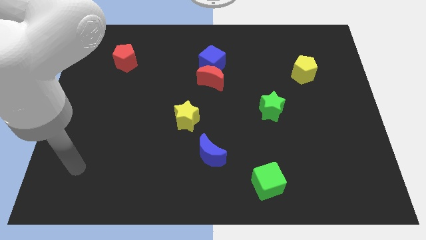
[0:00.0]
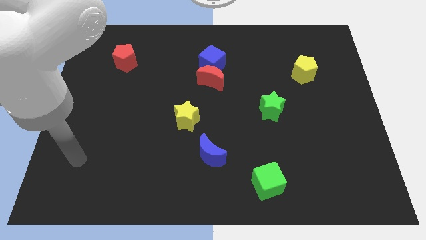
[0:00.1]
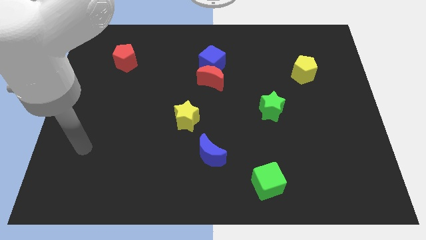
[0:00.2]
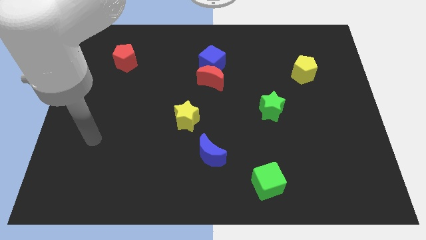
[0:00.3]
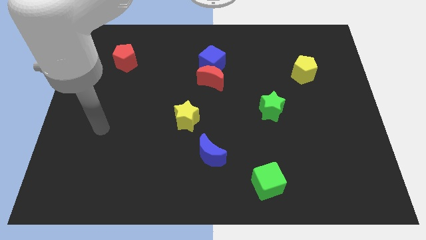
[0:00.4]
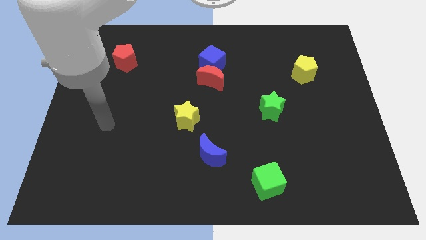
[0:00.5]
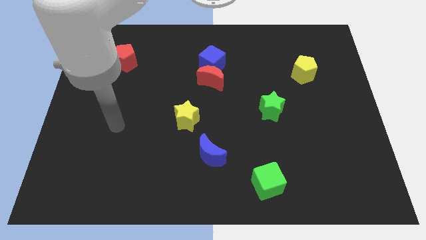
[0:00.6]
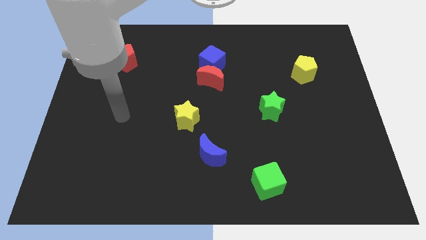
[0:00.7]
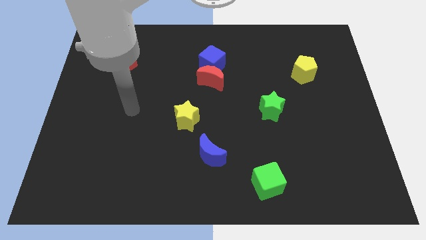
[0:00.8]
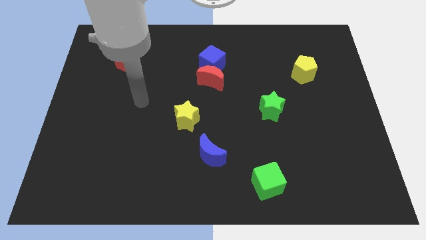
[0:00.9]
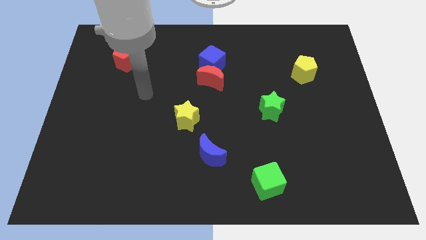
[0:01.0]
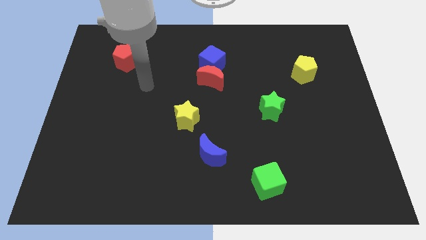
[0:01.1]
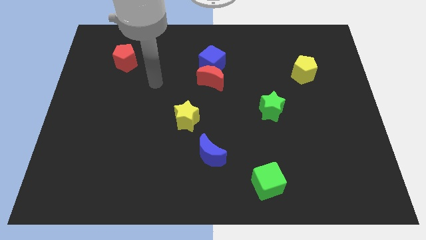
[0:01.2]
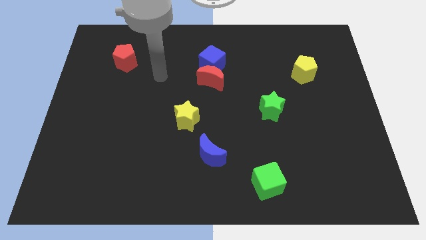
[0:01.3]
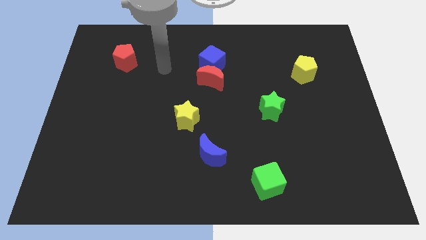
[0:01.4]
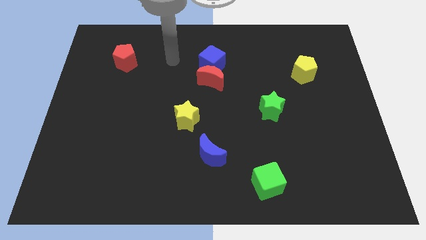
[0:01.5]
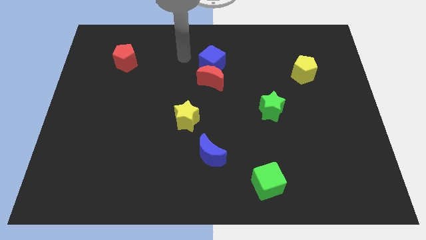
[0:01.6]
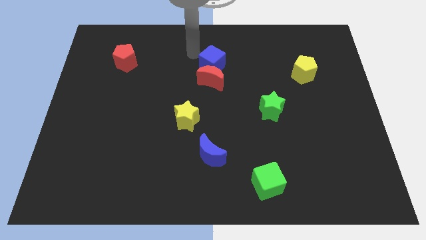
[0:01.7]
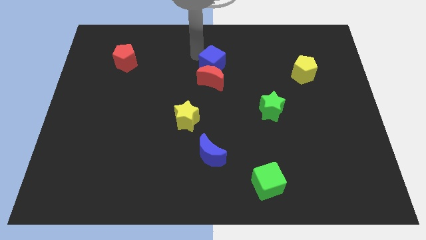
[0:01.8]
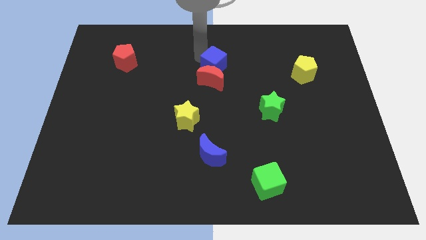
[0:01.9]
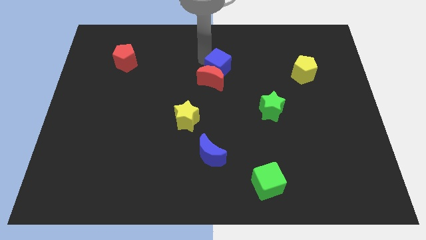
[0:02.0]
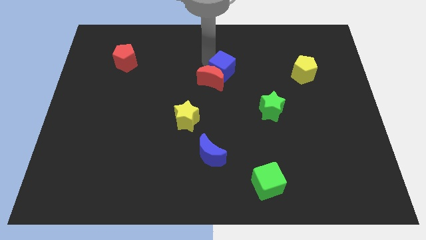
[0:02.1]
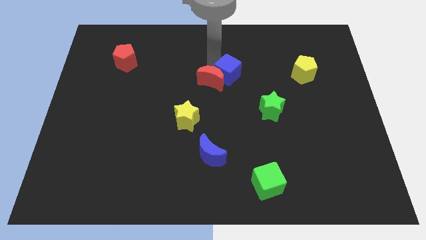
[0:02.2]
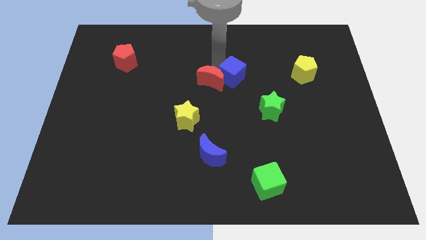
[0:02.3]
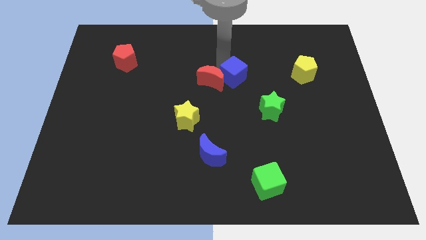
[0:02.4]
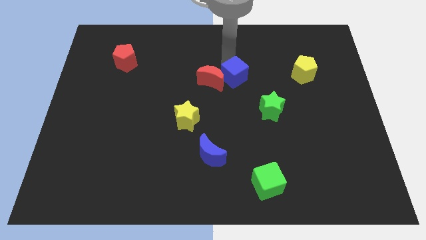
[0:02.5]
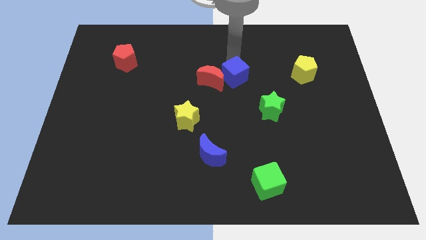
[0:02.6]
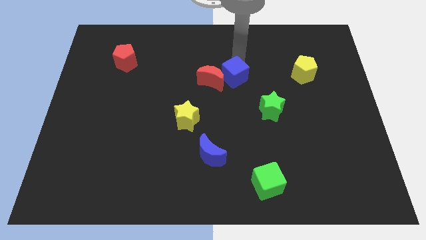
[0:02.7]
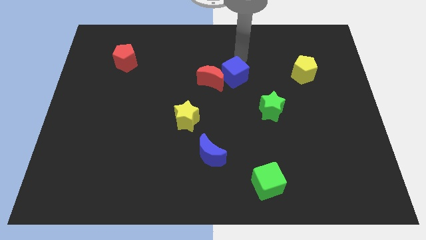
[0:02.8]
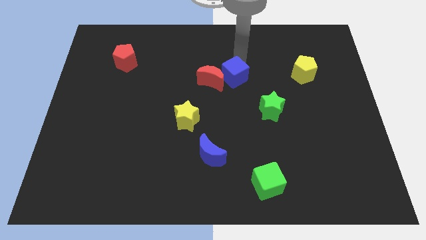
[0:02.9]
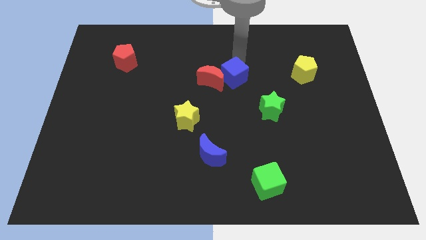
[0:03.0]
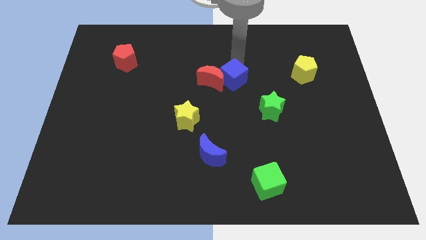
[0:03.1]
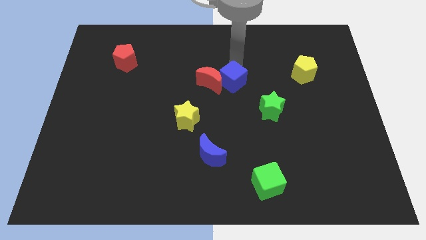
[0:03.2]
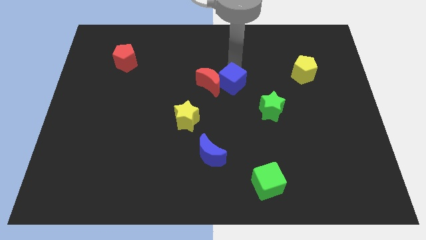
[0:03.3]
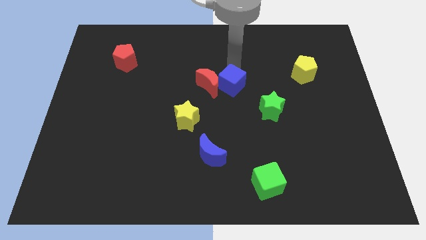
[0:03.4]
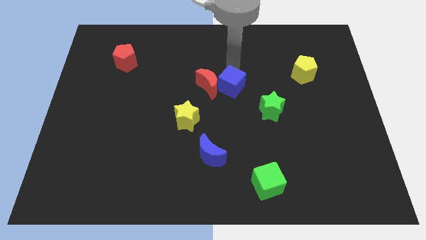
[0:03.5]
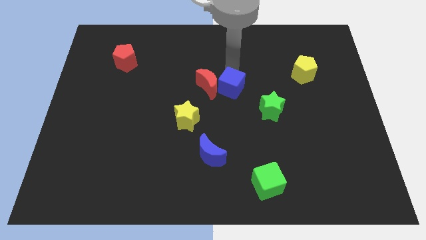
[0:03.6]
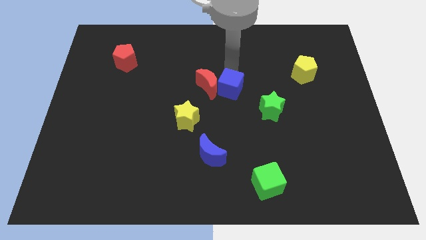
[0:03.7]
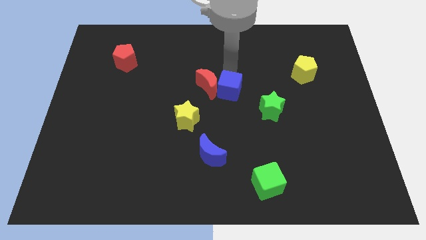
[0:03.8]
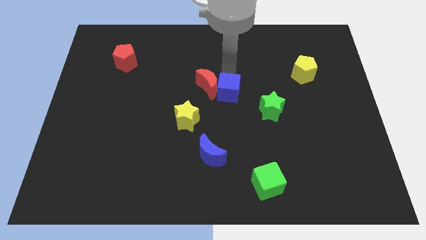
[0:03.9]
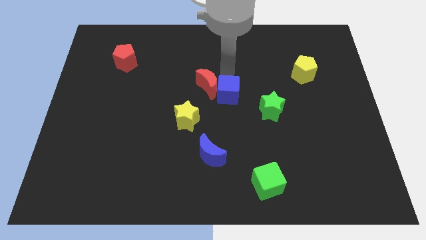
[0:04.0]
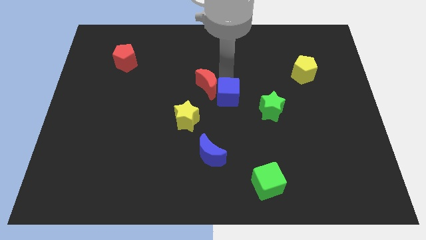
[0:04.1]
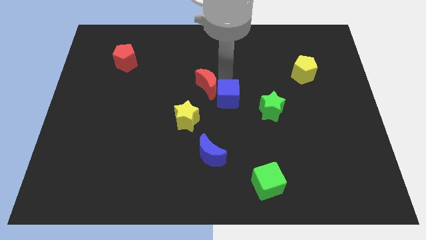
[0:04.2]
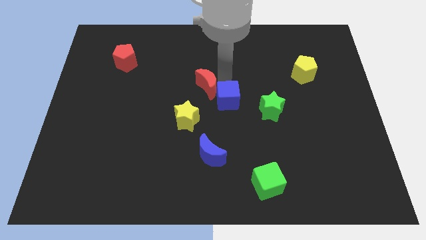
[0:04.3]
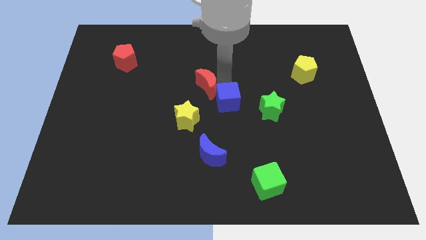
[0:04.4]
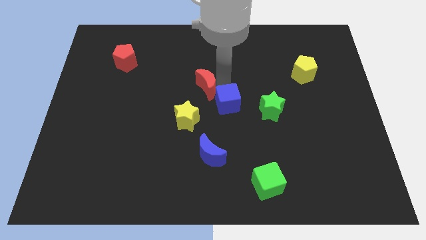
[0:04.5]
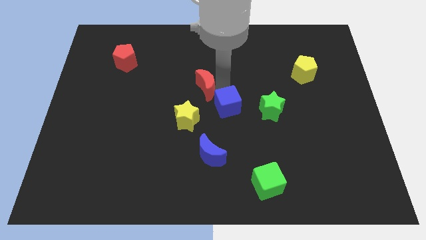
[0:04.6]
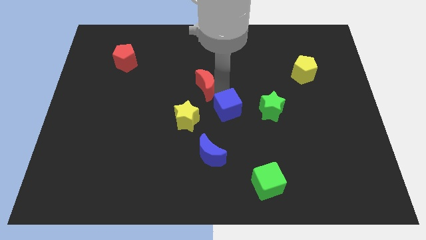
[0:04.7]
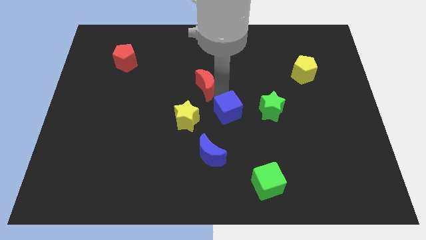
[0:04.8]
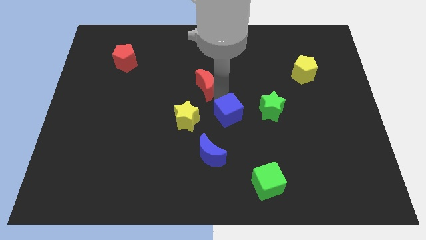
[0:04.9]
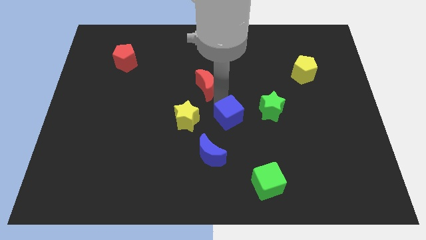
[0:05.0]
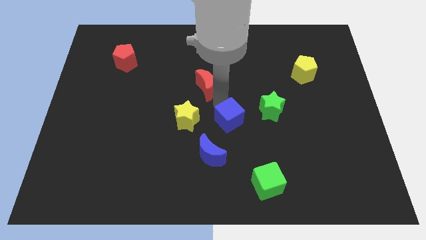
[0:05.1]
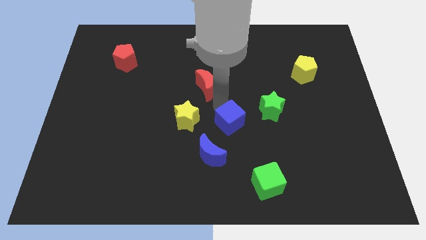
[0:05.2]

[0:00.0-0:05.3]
put the blue cube diagonally down and to the left of the green star

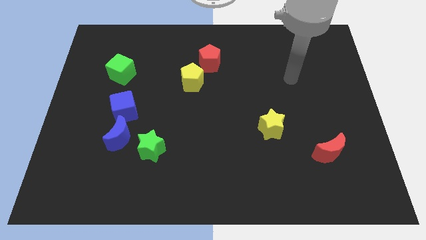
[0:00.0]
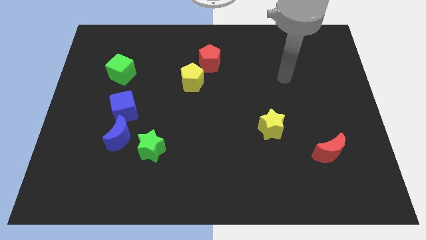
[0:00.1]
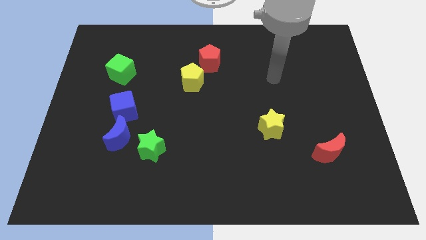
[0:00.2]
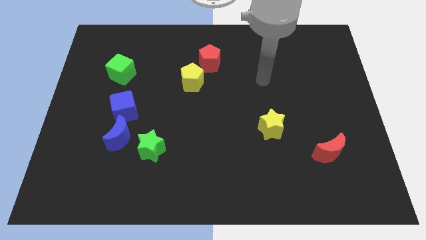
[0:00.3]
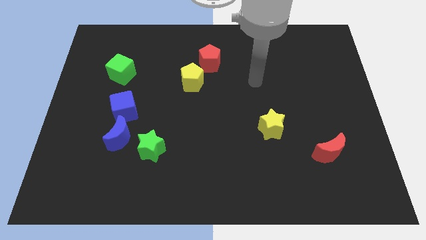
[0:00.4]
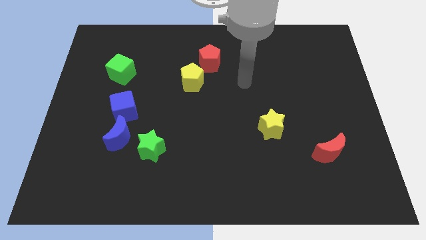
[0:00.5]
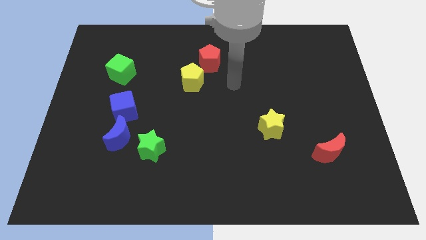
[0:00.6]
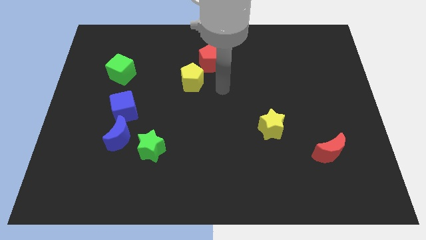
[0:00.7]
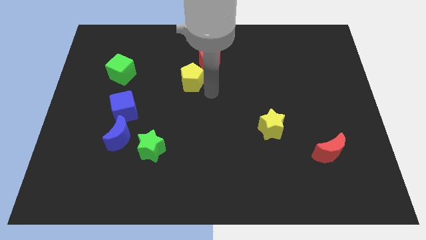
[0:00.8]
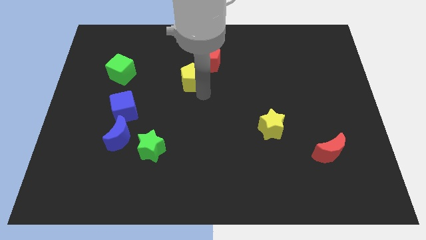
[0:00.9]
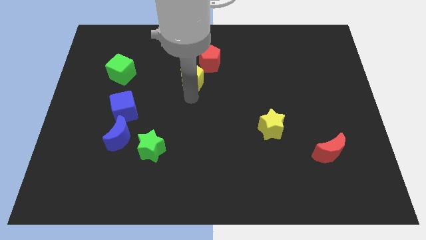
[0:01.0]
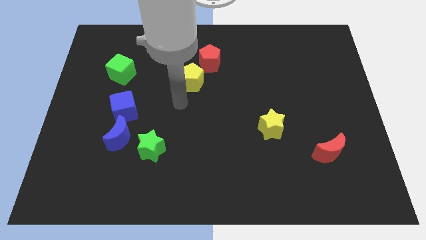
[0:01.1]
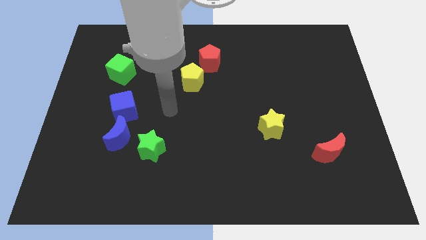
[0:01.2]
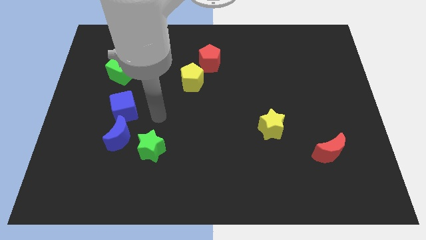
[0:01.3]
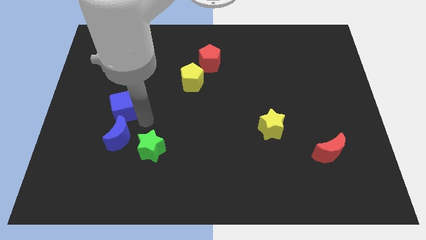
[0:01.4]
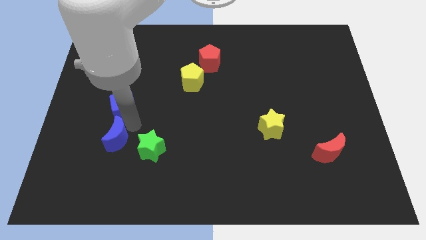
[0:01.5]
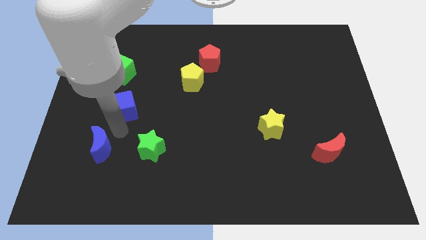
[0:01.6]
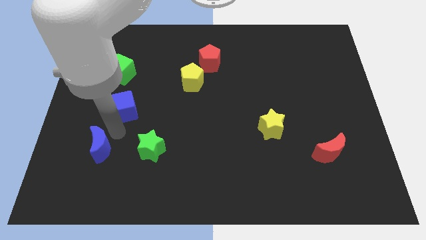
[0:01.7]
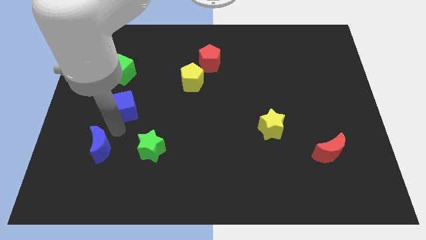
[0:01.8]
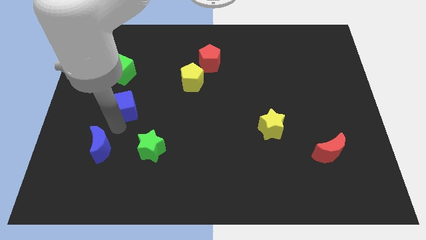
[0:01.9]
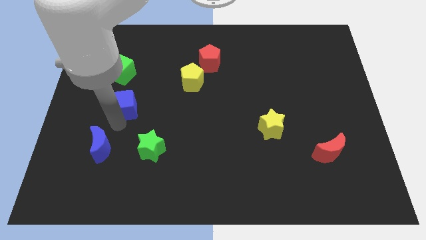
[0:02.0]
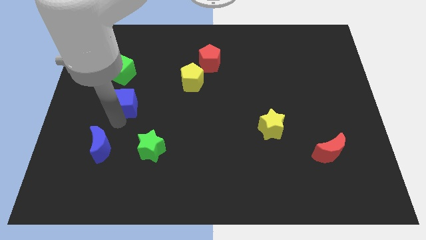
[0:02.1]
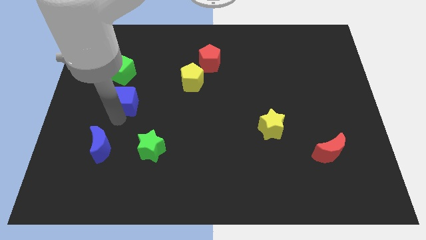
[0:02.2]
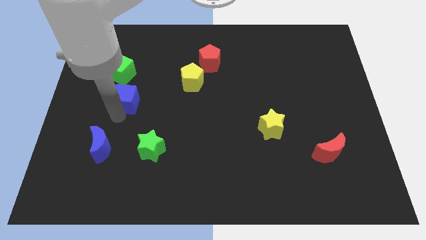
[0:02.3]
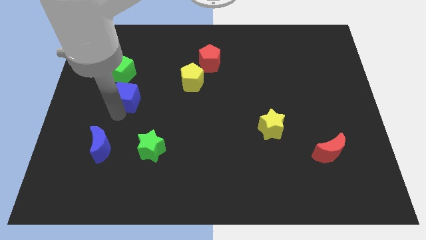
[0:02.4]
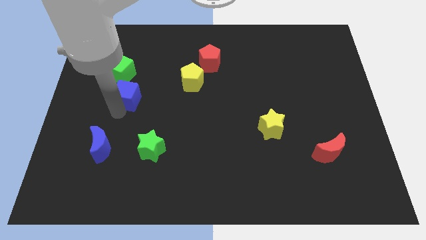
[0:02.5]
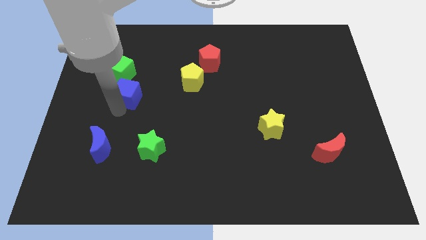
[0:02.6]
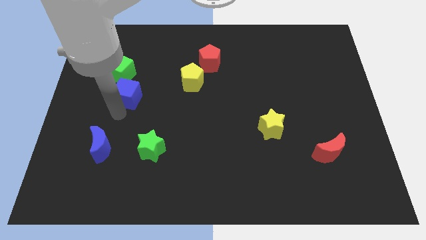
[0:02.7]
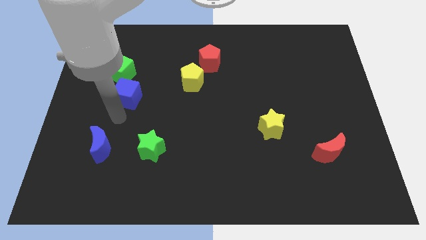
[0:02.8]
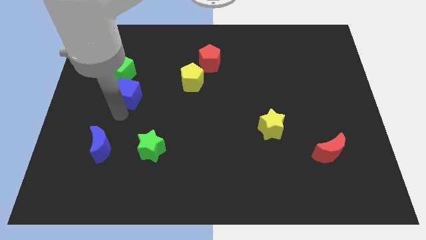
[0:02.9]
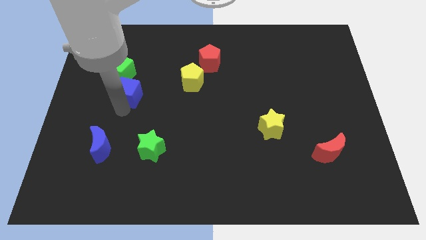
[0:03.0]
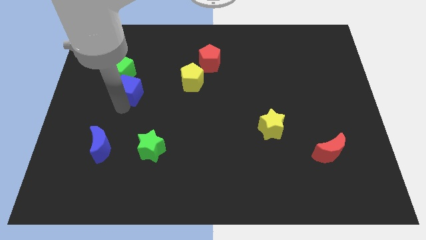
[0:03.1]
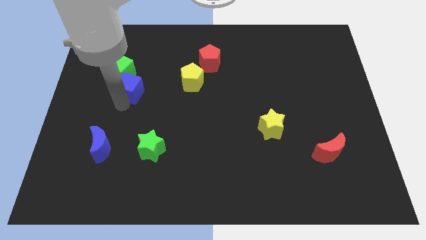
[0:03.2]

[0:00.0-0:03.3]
put the blue cube to the left of the yellow pentagon
